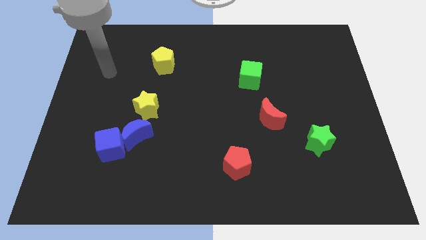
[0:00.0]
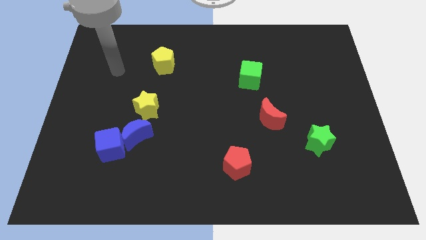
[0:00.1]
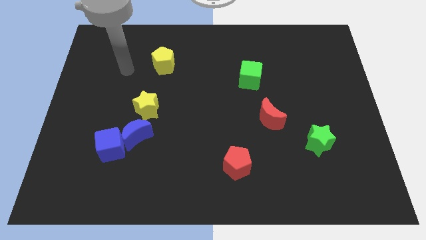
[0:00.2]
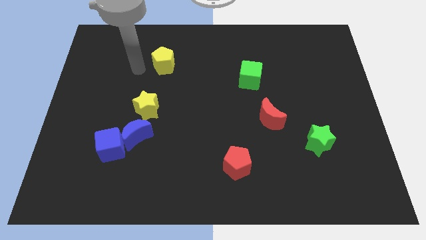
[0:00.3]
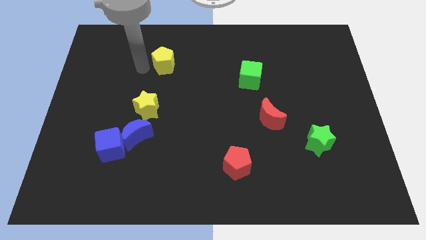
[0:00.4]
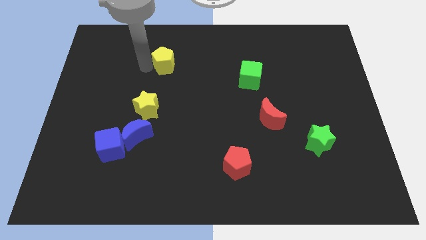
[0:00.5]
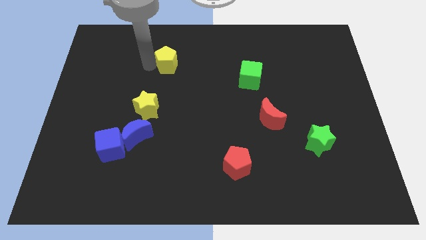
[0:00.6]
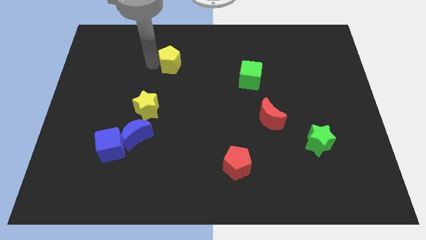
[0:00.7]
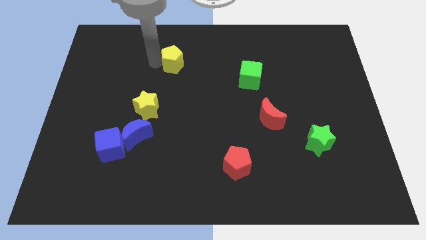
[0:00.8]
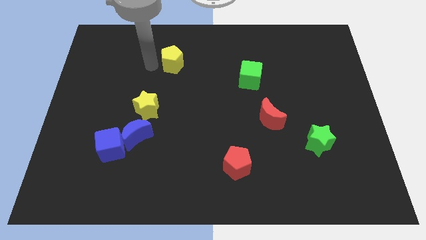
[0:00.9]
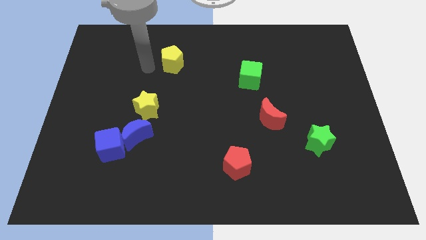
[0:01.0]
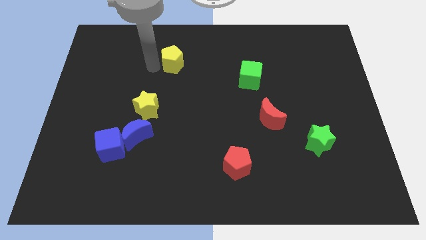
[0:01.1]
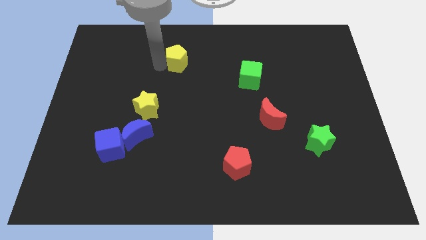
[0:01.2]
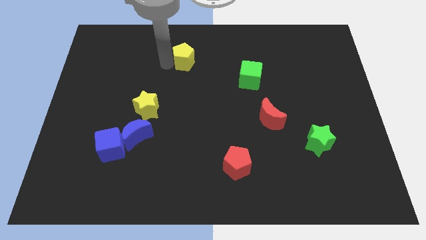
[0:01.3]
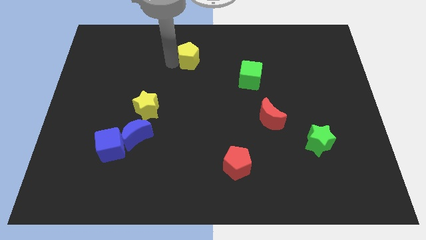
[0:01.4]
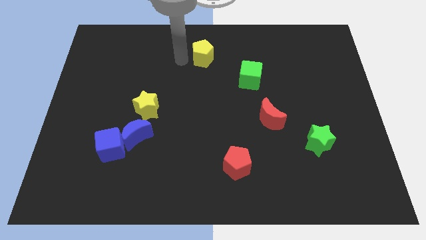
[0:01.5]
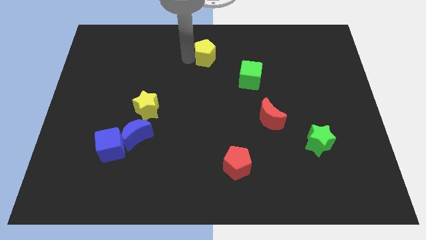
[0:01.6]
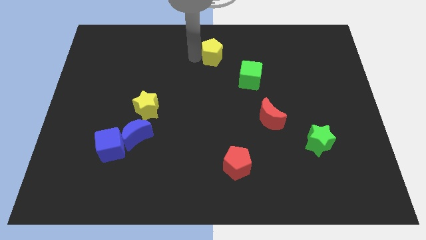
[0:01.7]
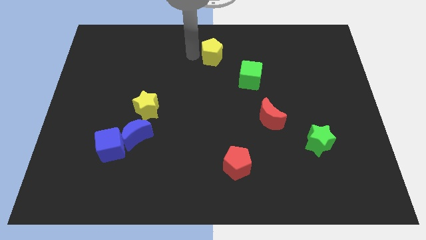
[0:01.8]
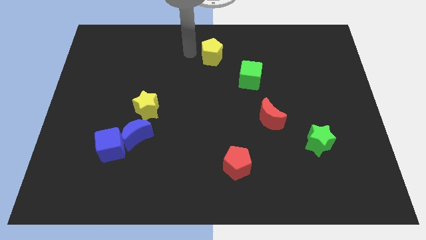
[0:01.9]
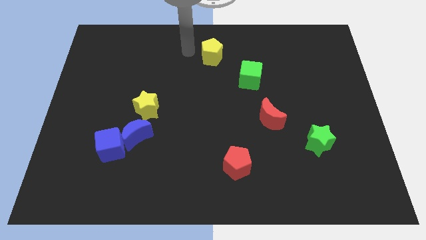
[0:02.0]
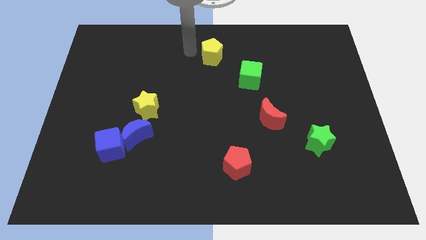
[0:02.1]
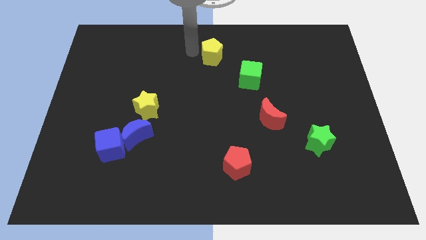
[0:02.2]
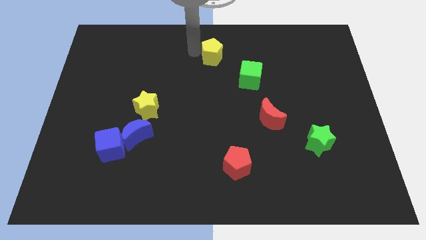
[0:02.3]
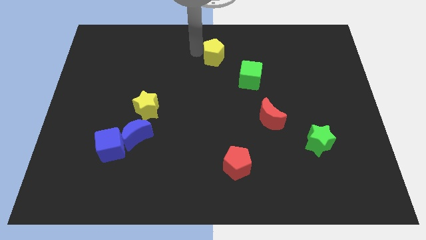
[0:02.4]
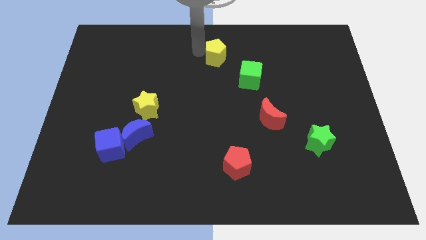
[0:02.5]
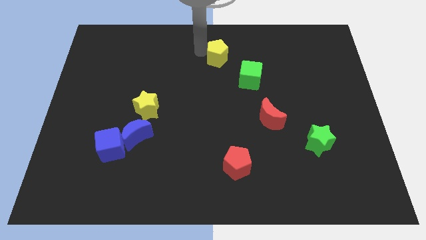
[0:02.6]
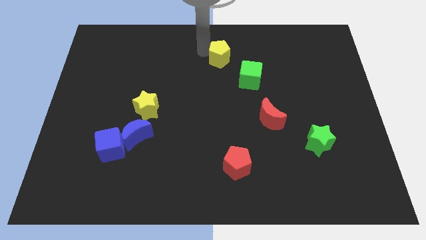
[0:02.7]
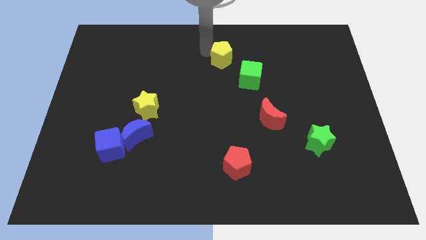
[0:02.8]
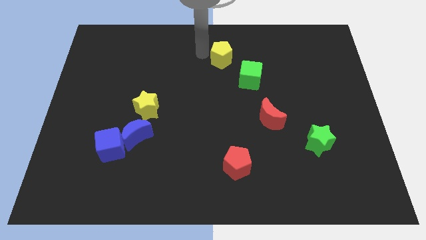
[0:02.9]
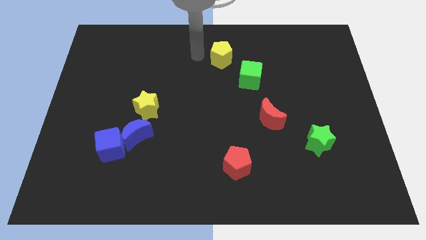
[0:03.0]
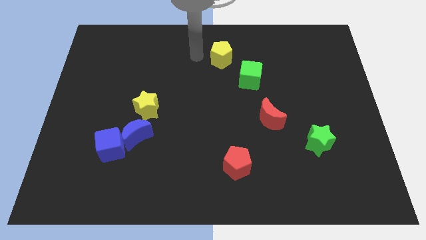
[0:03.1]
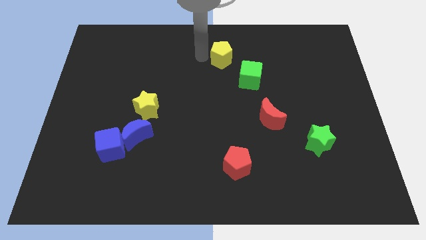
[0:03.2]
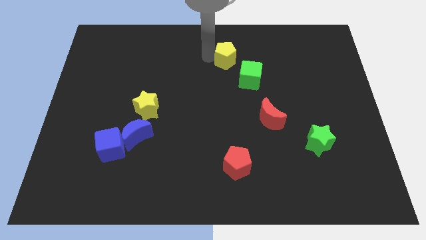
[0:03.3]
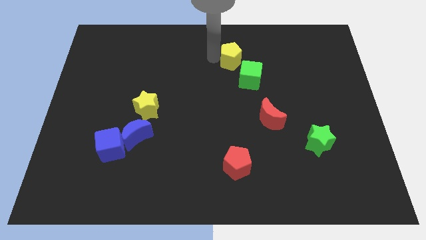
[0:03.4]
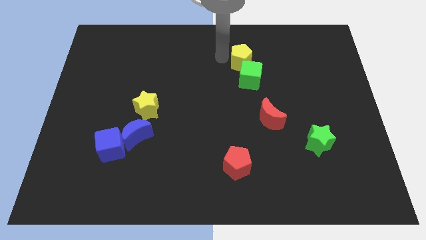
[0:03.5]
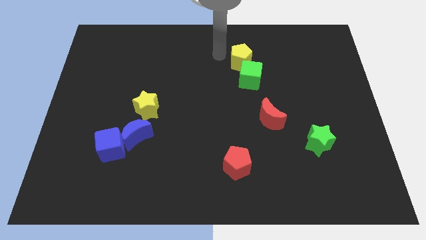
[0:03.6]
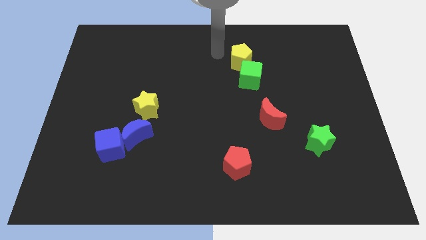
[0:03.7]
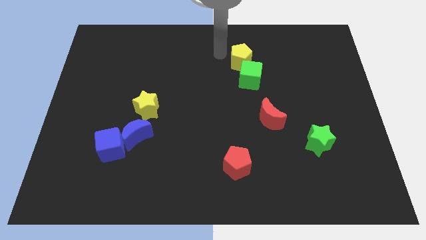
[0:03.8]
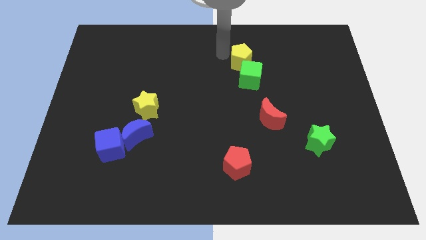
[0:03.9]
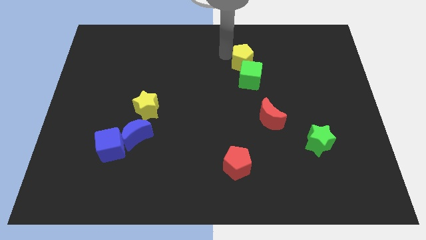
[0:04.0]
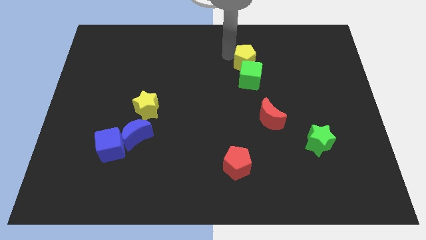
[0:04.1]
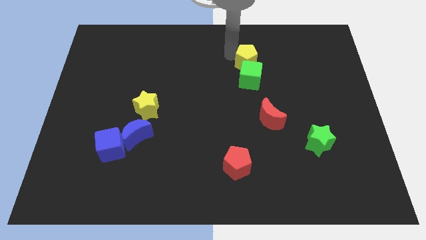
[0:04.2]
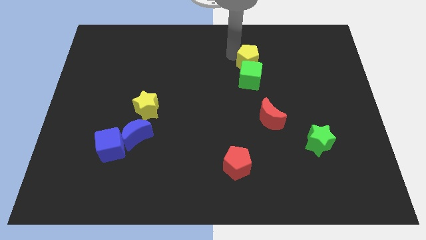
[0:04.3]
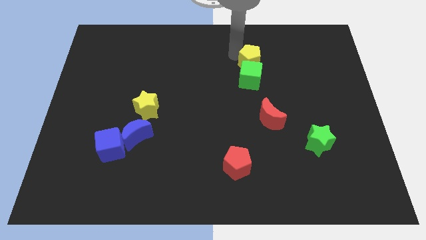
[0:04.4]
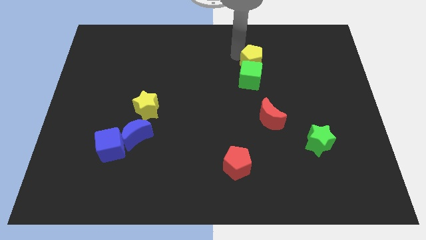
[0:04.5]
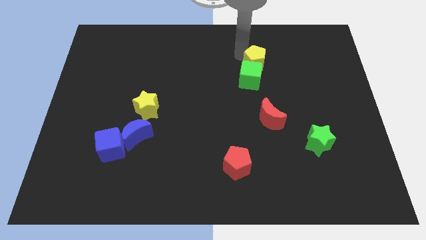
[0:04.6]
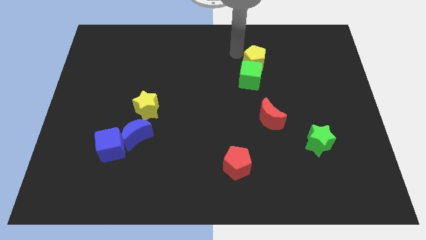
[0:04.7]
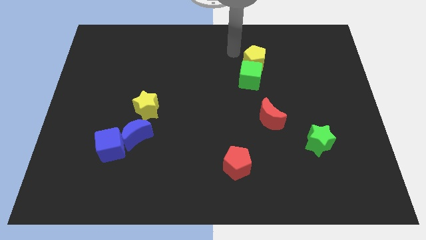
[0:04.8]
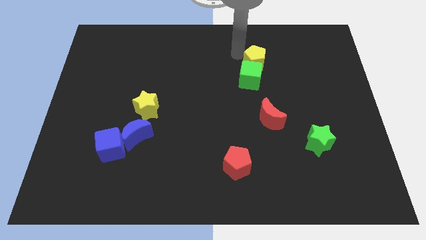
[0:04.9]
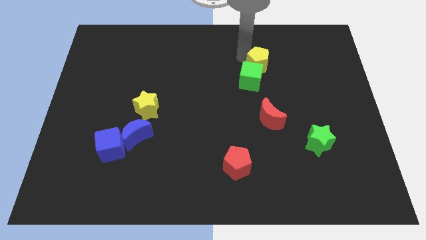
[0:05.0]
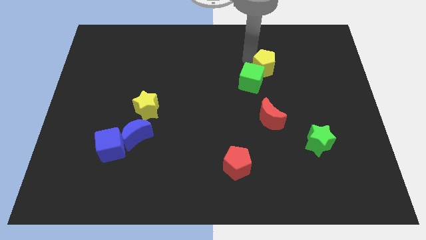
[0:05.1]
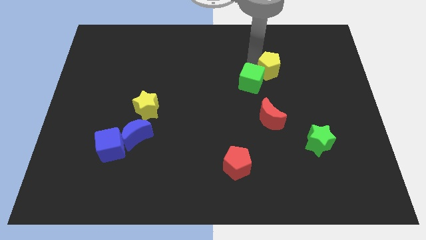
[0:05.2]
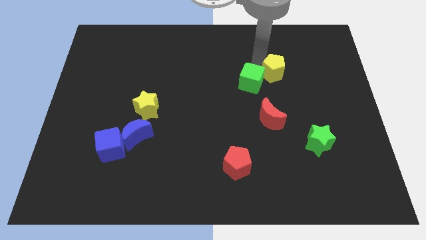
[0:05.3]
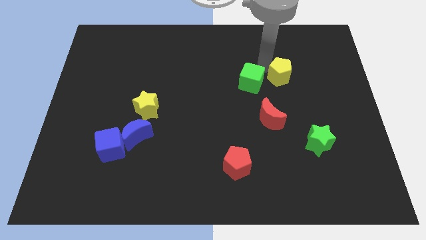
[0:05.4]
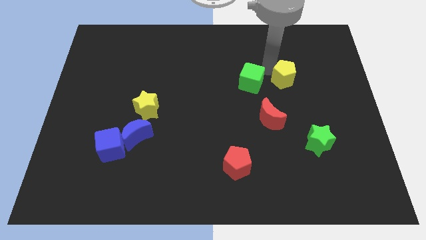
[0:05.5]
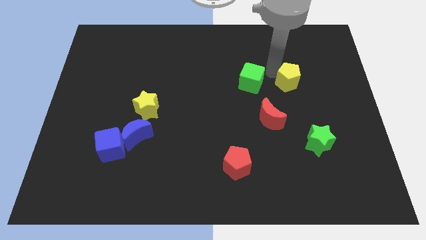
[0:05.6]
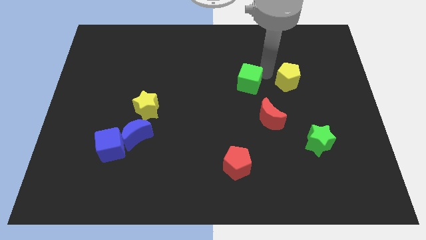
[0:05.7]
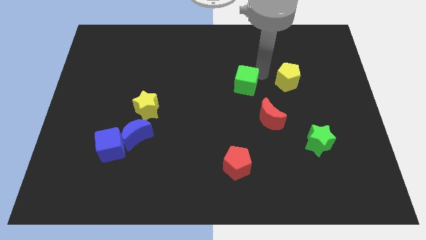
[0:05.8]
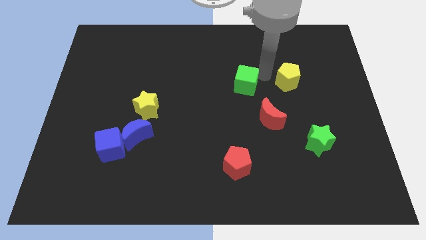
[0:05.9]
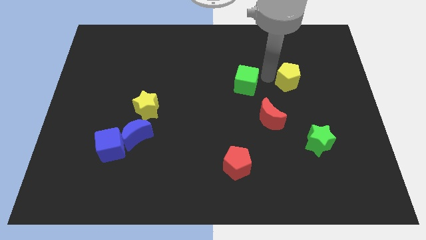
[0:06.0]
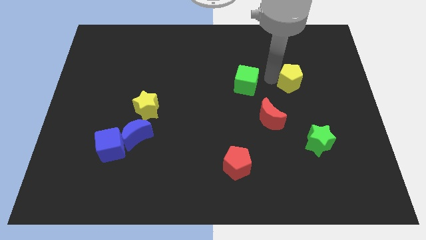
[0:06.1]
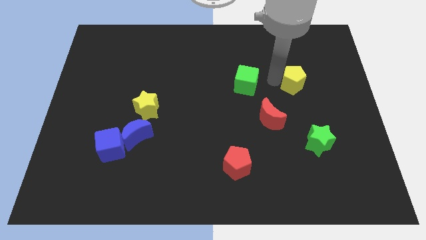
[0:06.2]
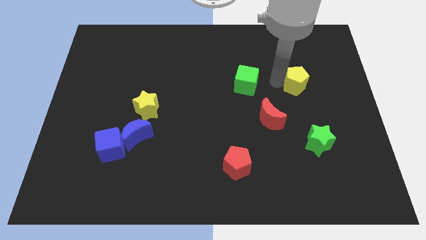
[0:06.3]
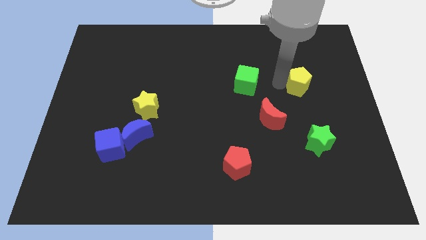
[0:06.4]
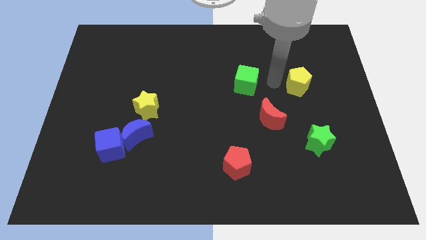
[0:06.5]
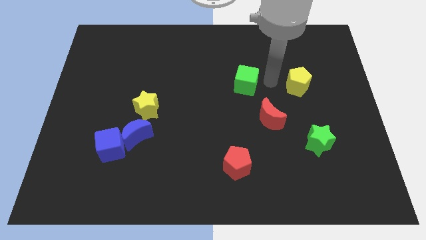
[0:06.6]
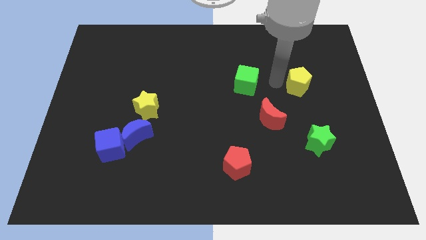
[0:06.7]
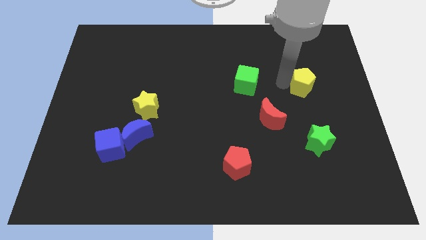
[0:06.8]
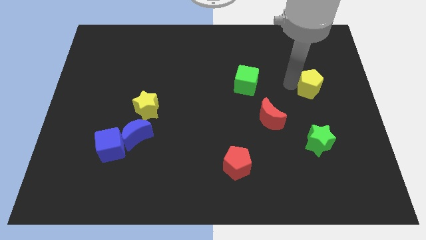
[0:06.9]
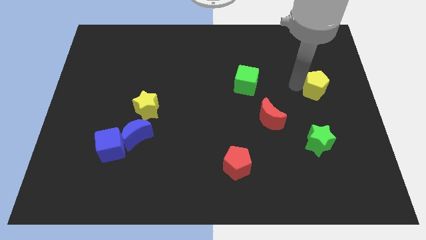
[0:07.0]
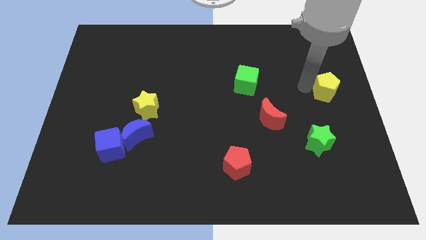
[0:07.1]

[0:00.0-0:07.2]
move the yellow pentagon to the right side of the board
